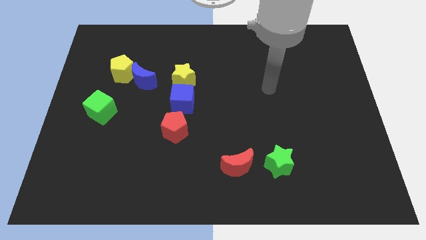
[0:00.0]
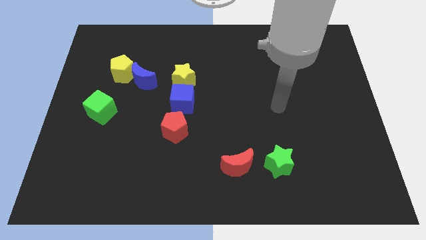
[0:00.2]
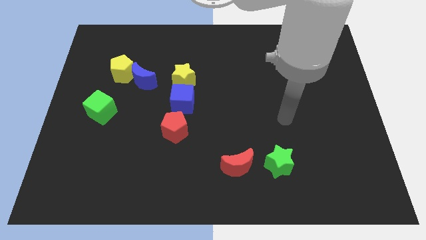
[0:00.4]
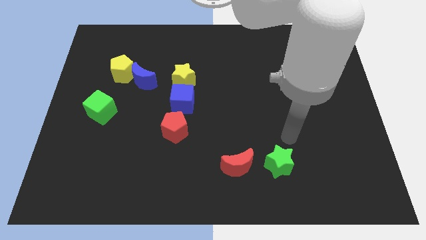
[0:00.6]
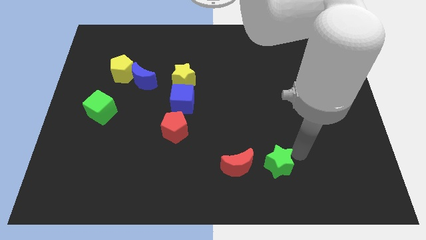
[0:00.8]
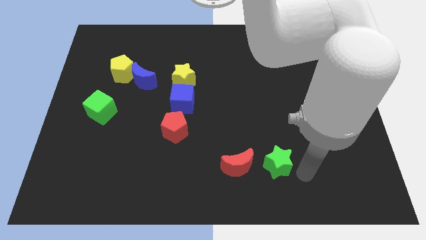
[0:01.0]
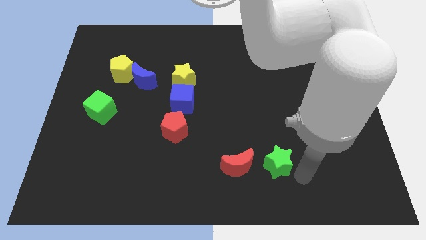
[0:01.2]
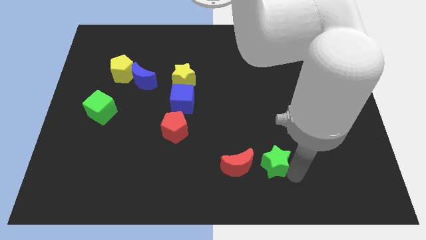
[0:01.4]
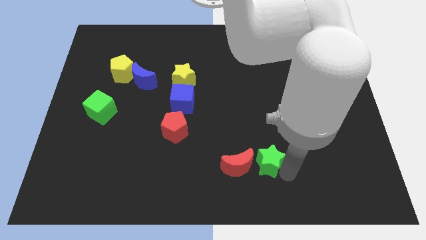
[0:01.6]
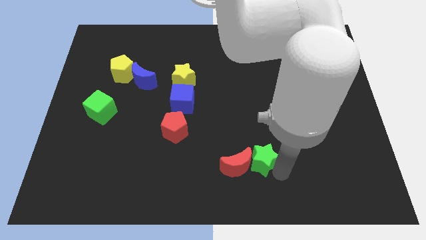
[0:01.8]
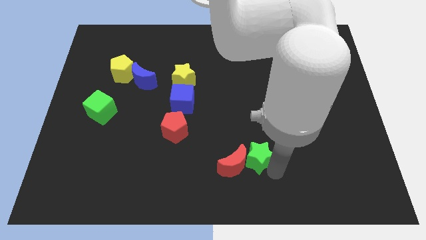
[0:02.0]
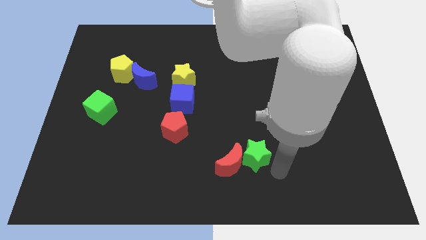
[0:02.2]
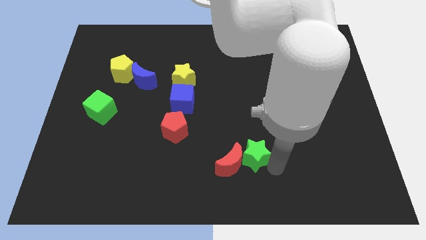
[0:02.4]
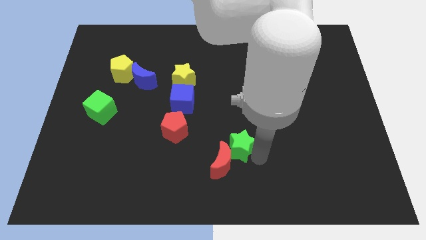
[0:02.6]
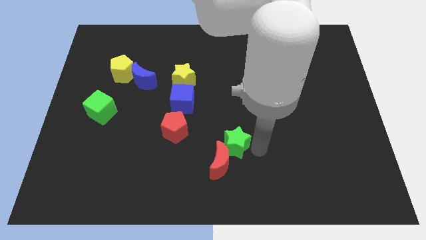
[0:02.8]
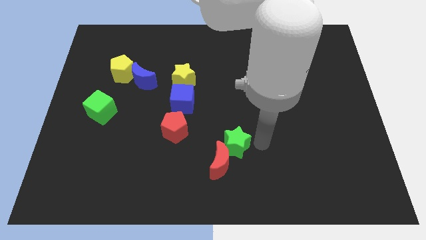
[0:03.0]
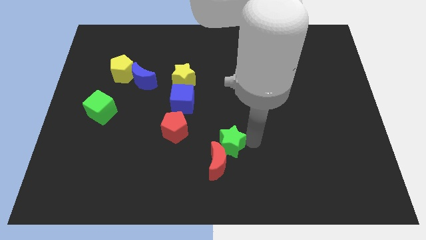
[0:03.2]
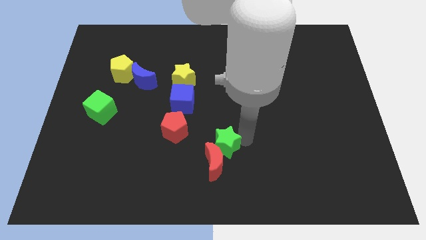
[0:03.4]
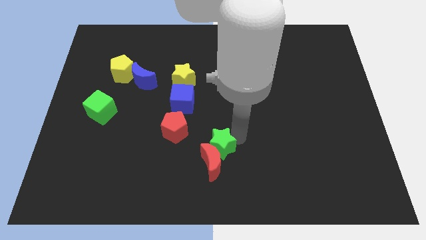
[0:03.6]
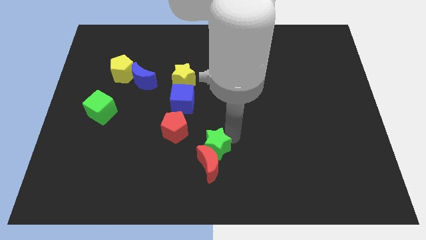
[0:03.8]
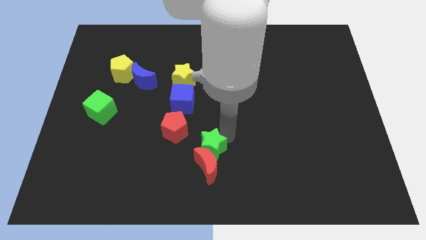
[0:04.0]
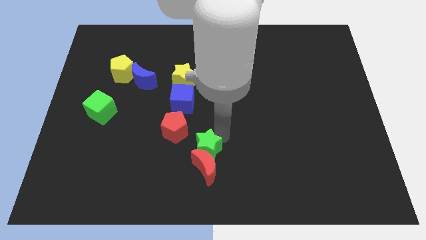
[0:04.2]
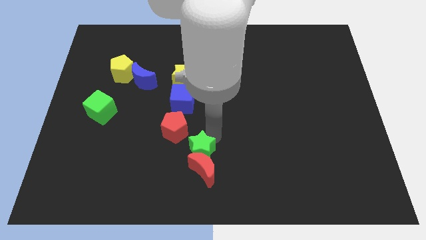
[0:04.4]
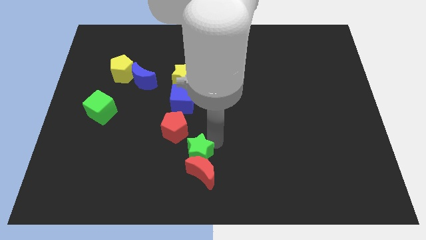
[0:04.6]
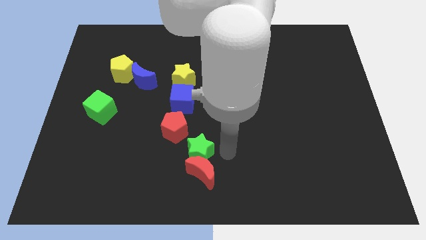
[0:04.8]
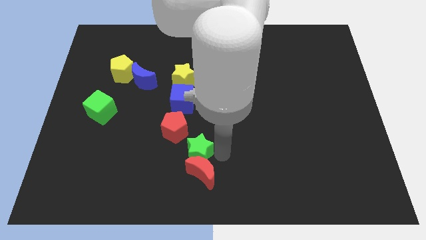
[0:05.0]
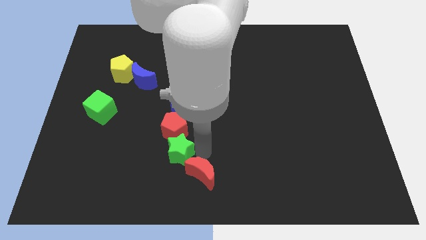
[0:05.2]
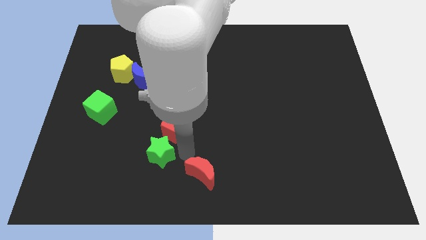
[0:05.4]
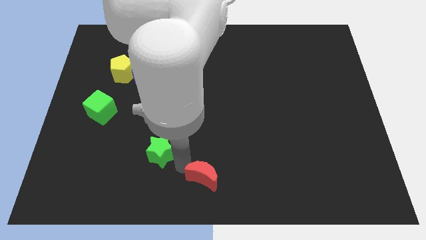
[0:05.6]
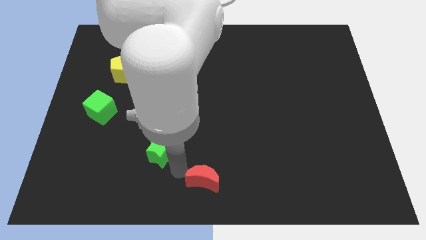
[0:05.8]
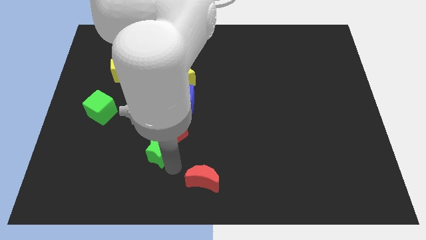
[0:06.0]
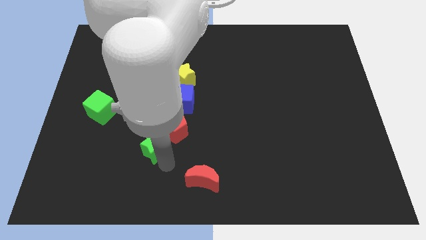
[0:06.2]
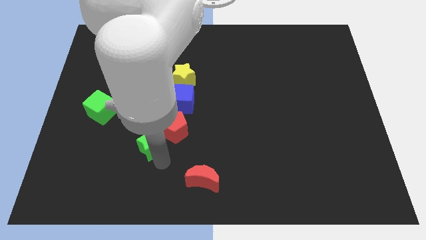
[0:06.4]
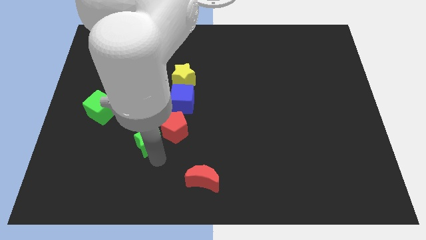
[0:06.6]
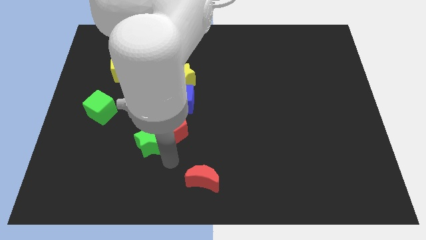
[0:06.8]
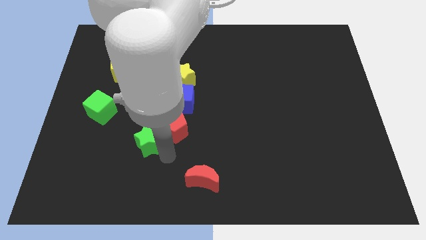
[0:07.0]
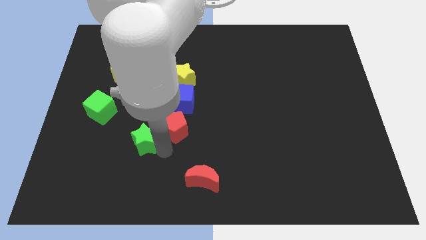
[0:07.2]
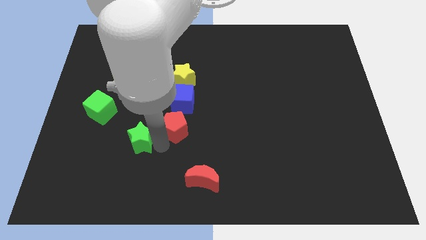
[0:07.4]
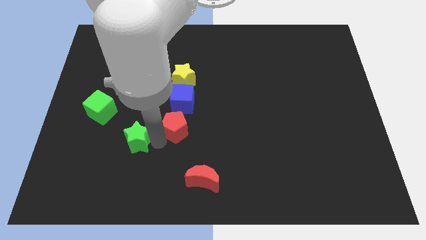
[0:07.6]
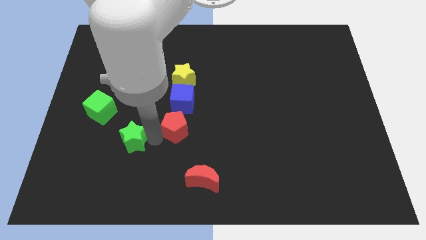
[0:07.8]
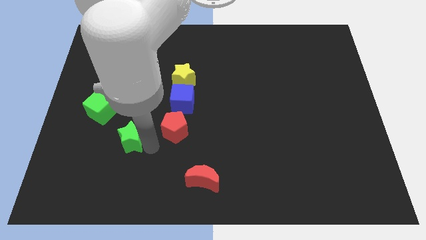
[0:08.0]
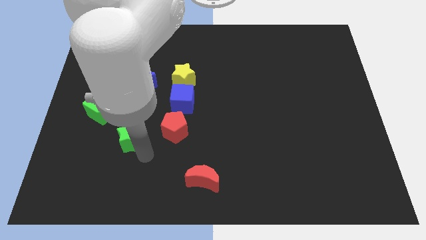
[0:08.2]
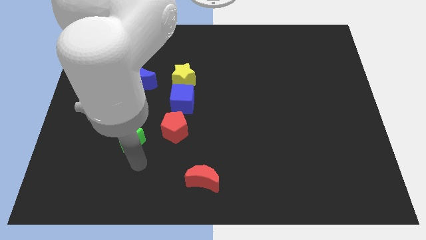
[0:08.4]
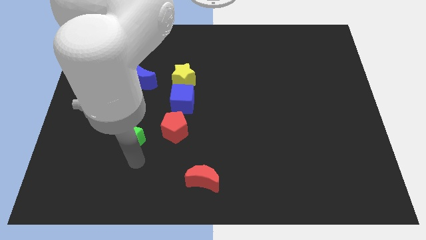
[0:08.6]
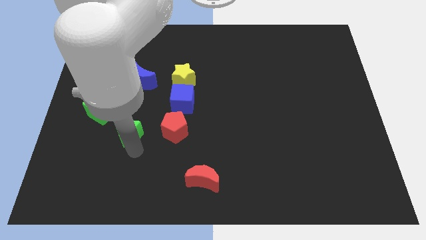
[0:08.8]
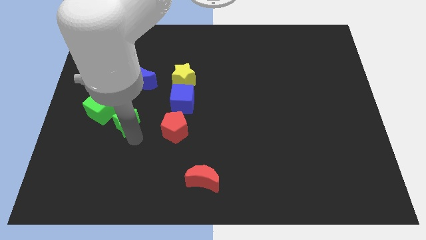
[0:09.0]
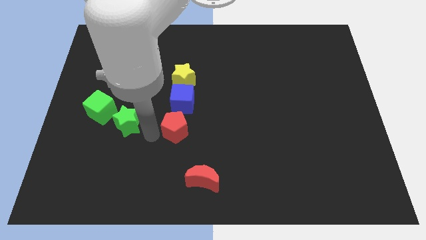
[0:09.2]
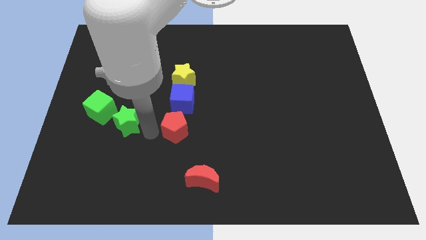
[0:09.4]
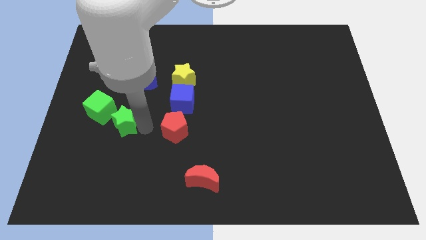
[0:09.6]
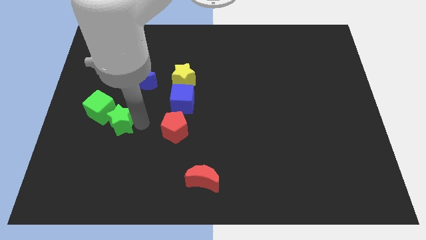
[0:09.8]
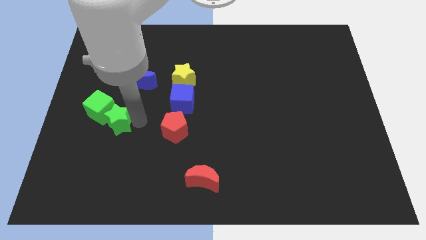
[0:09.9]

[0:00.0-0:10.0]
slide the green star to the green cube

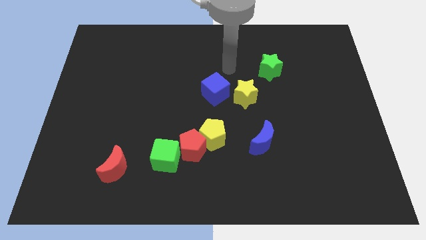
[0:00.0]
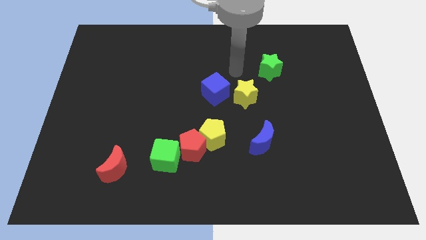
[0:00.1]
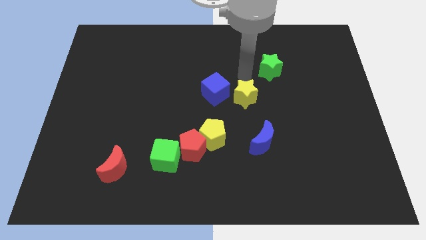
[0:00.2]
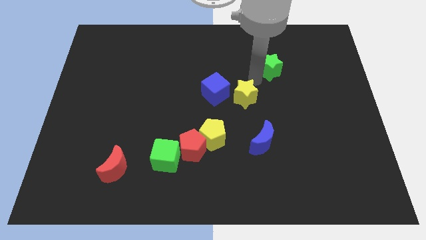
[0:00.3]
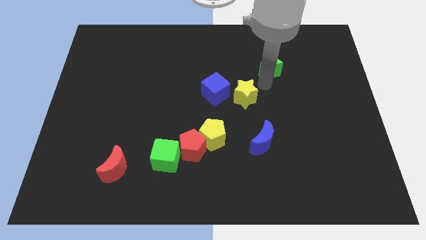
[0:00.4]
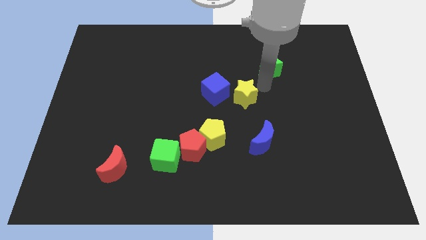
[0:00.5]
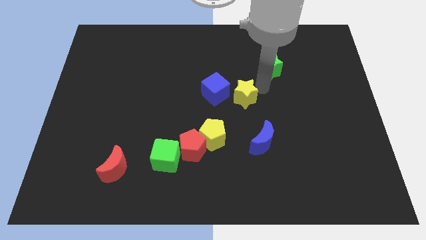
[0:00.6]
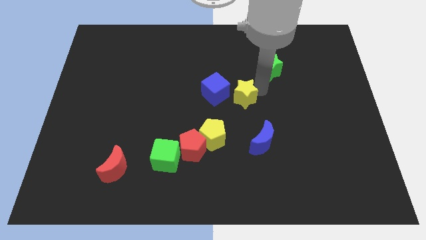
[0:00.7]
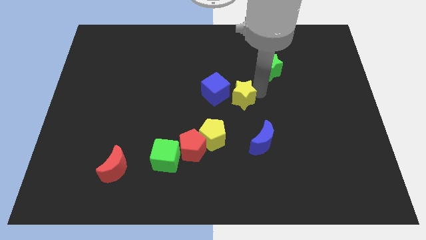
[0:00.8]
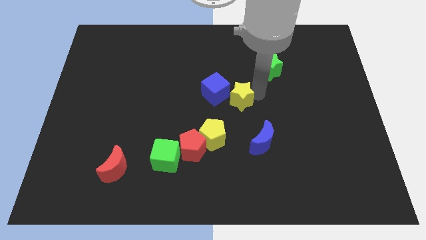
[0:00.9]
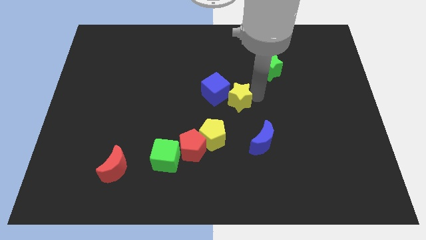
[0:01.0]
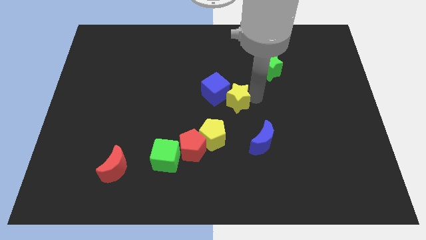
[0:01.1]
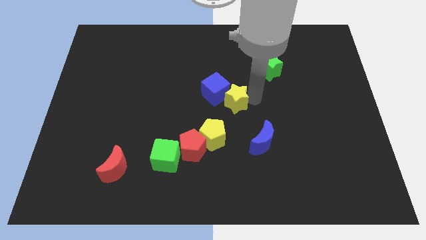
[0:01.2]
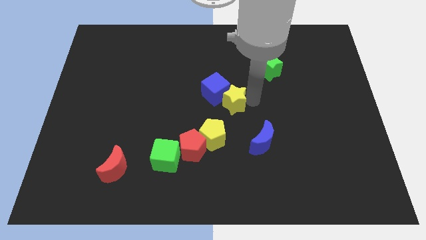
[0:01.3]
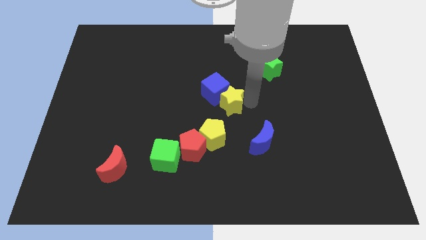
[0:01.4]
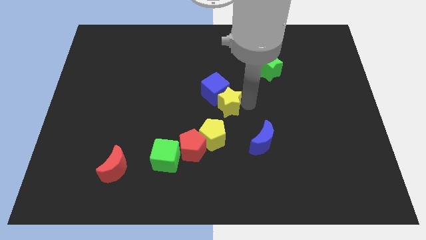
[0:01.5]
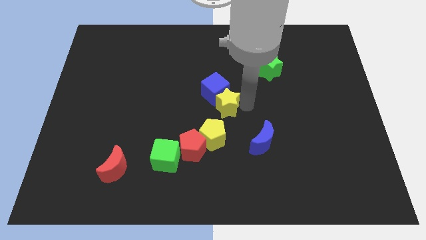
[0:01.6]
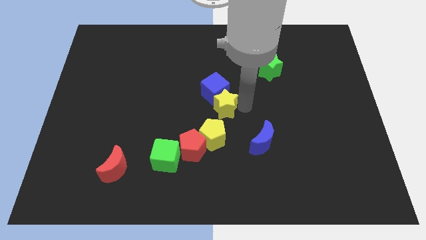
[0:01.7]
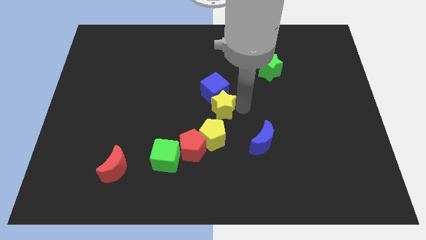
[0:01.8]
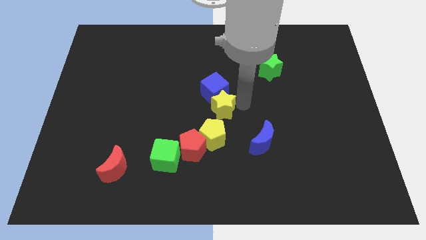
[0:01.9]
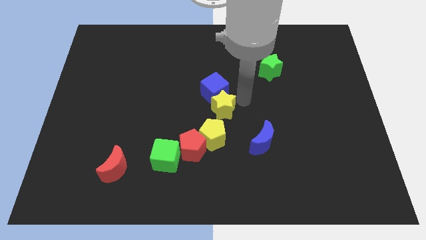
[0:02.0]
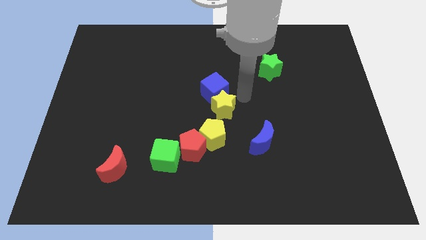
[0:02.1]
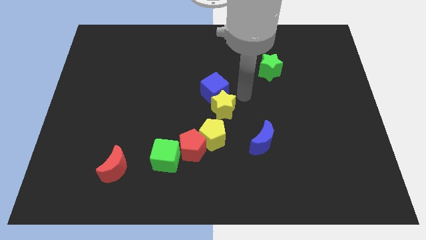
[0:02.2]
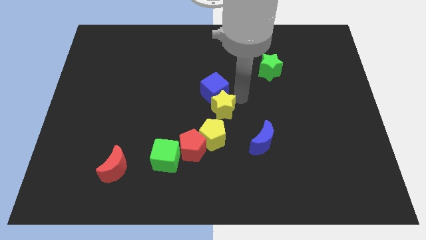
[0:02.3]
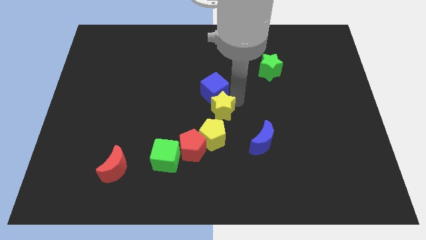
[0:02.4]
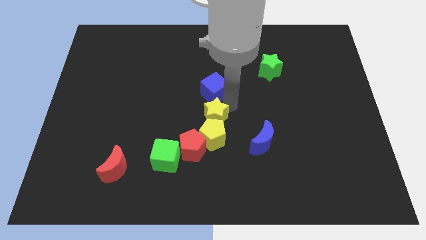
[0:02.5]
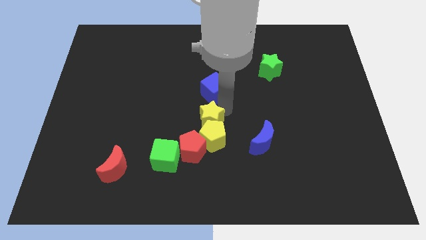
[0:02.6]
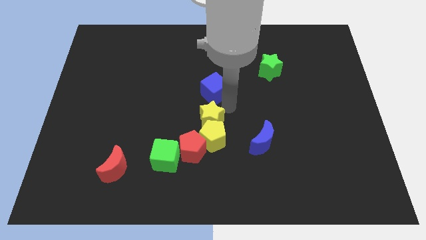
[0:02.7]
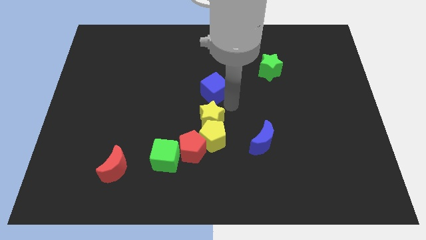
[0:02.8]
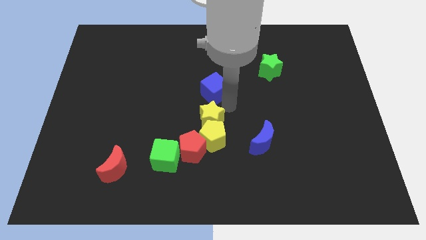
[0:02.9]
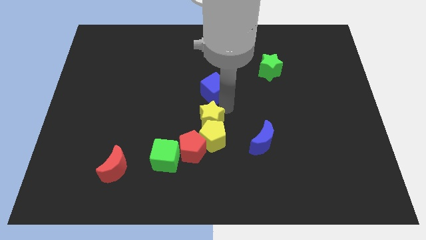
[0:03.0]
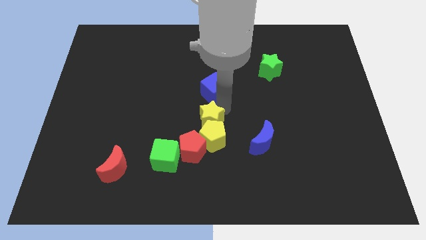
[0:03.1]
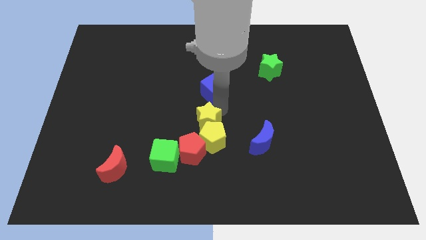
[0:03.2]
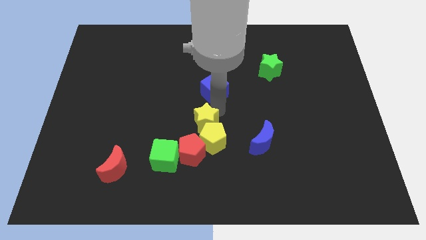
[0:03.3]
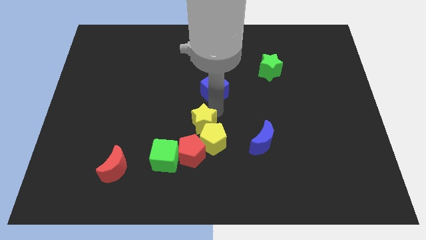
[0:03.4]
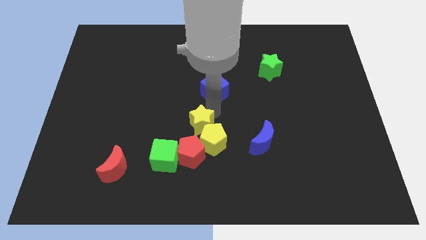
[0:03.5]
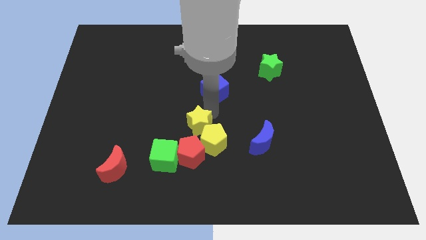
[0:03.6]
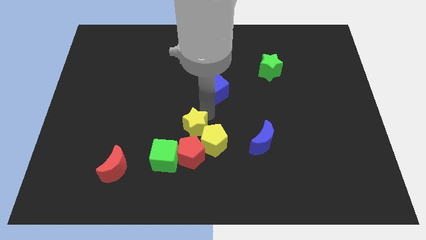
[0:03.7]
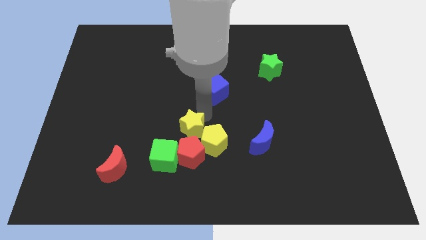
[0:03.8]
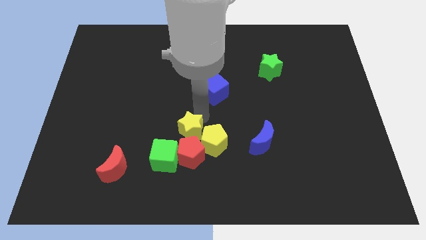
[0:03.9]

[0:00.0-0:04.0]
push the yellow star towards the red pentagon
